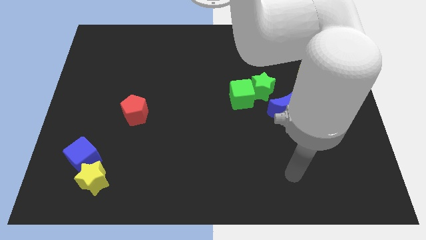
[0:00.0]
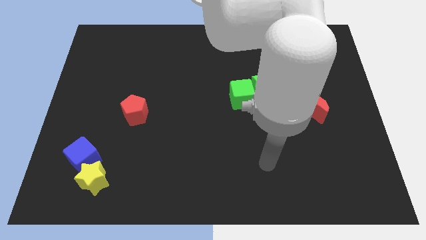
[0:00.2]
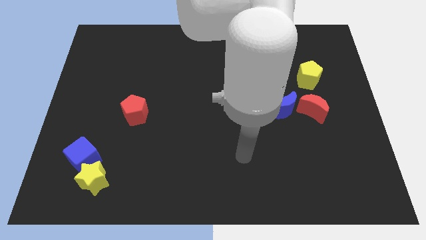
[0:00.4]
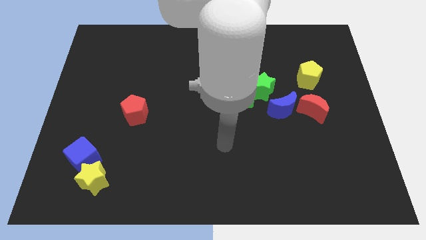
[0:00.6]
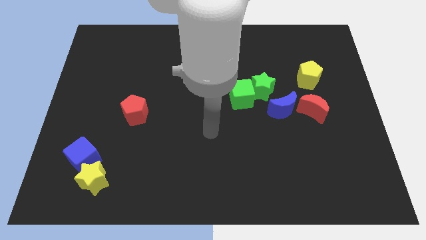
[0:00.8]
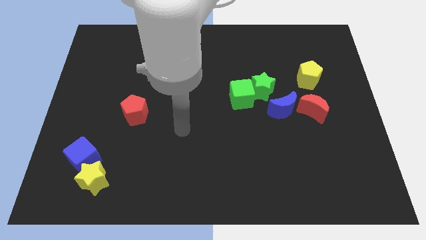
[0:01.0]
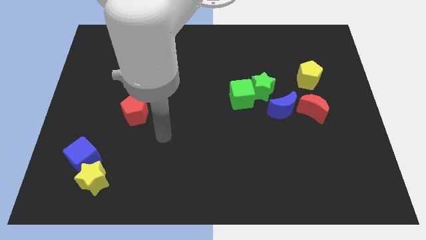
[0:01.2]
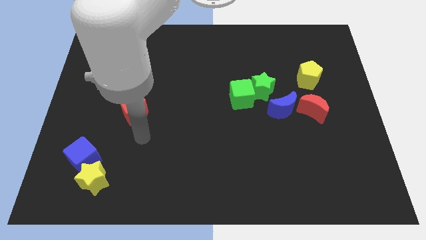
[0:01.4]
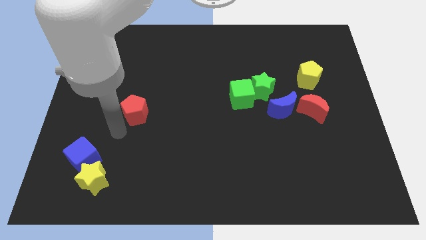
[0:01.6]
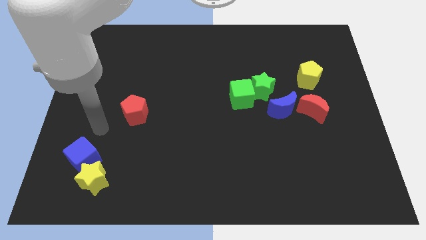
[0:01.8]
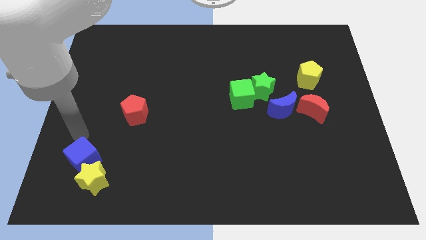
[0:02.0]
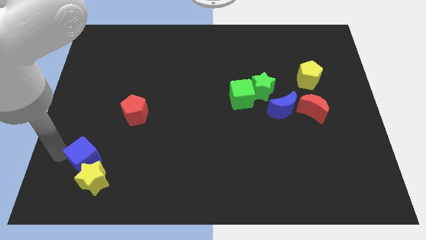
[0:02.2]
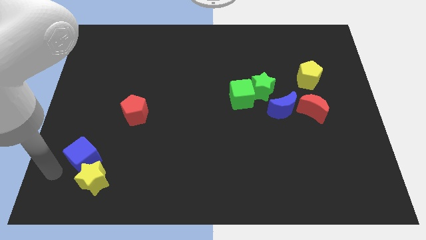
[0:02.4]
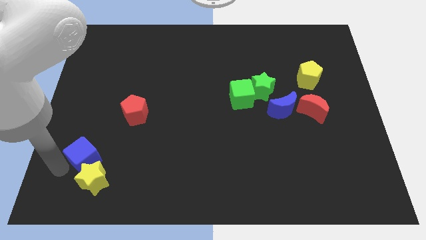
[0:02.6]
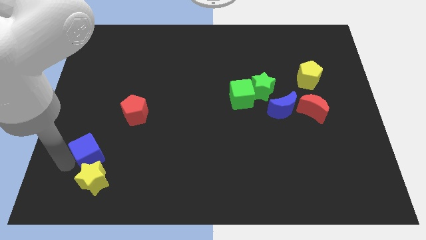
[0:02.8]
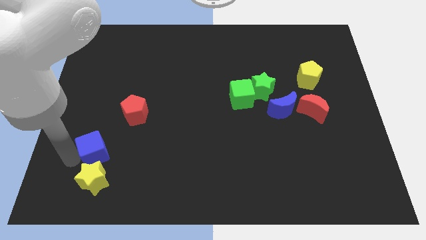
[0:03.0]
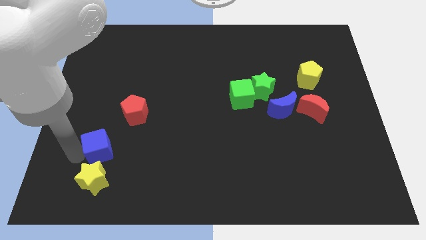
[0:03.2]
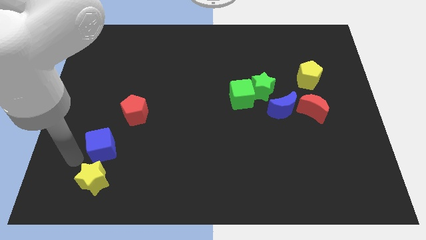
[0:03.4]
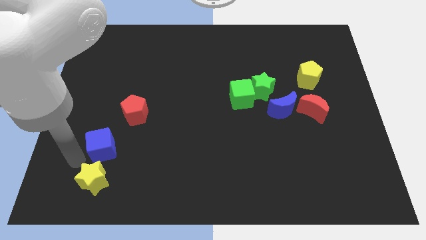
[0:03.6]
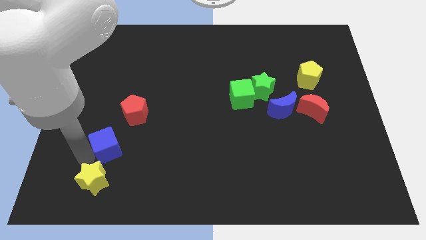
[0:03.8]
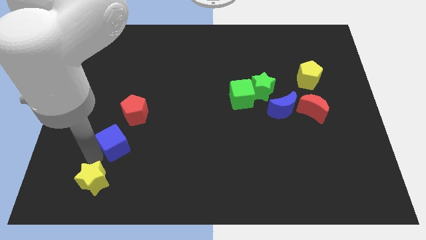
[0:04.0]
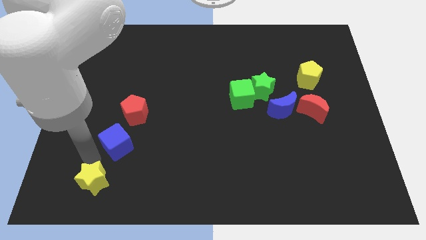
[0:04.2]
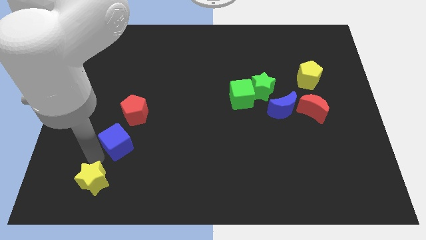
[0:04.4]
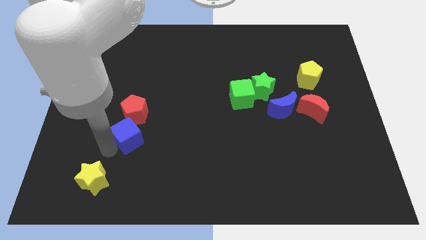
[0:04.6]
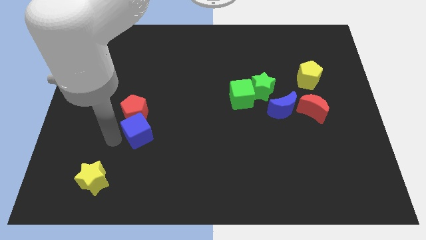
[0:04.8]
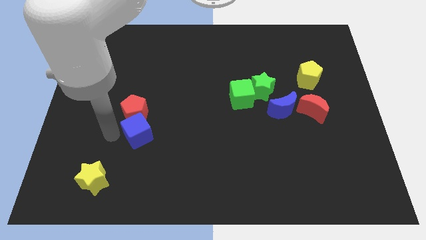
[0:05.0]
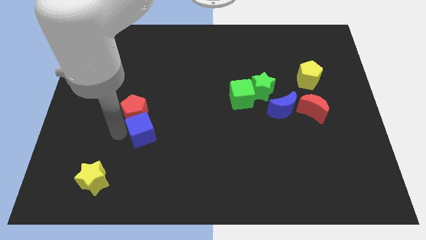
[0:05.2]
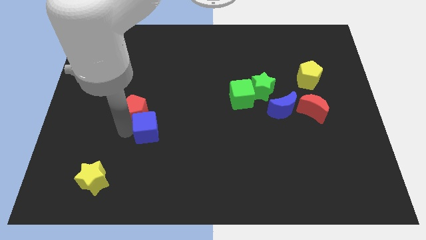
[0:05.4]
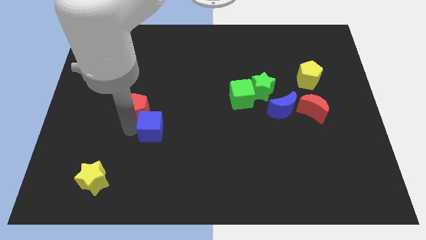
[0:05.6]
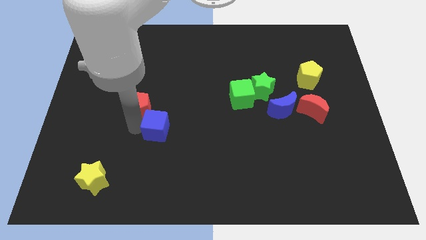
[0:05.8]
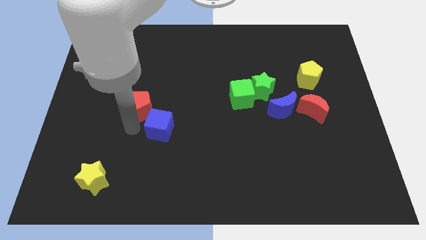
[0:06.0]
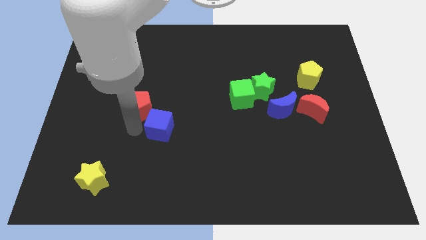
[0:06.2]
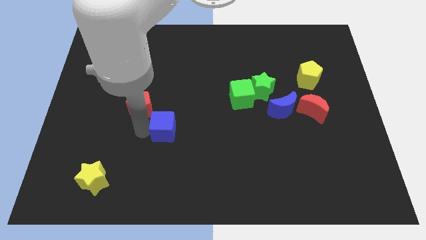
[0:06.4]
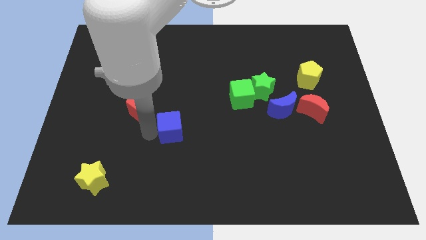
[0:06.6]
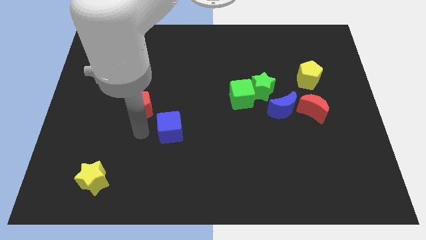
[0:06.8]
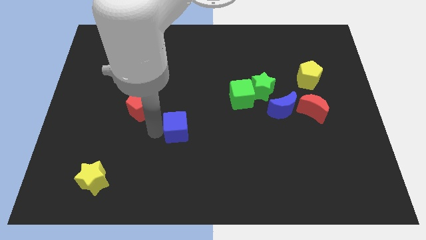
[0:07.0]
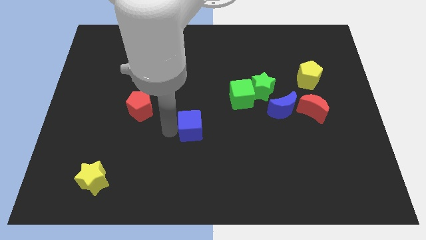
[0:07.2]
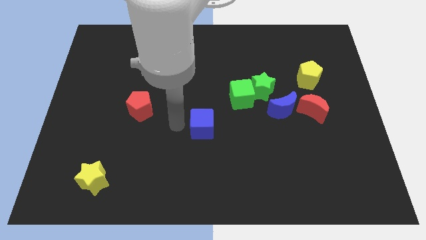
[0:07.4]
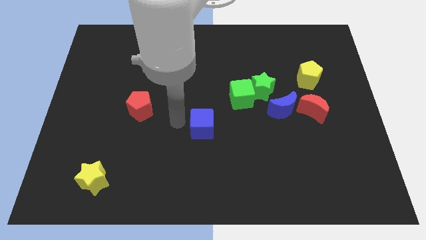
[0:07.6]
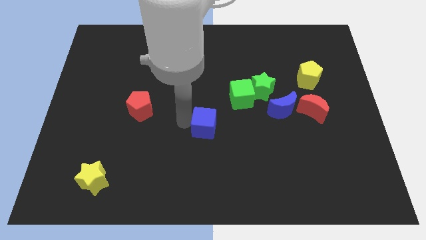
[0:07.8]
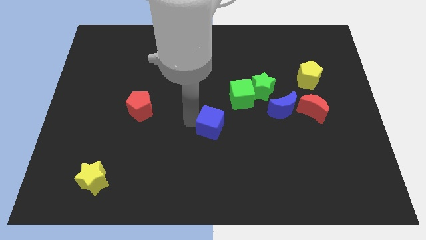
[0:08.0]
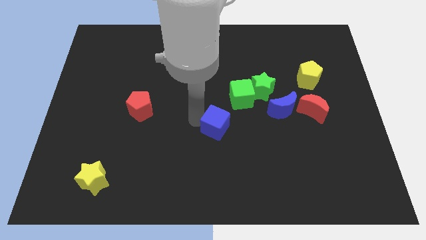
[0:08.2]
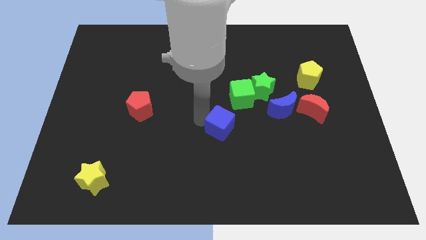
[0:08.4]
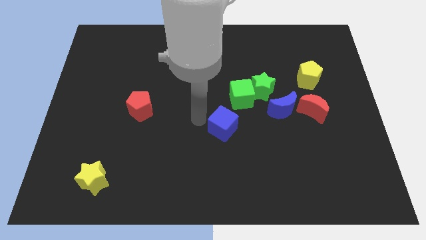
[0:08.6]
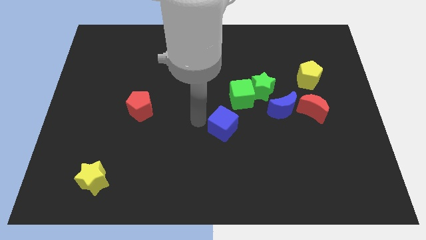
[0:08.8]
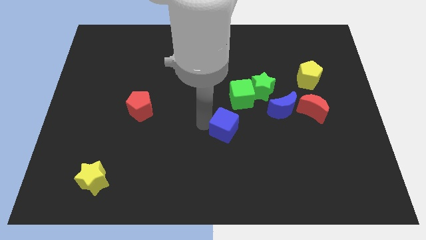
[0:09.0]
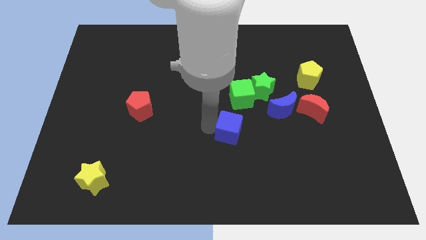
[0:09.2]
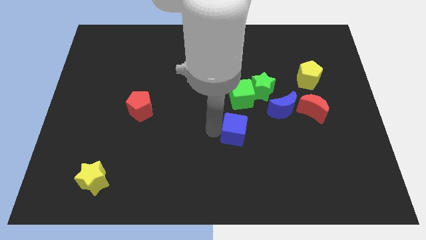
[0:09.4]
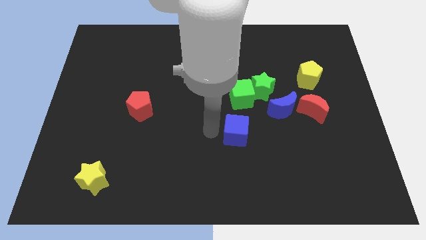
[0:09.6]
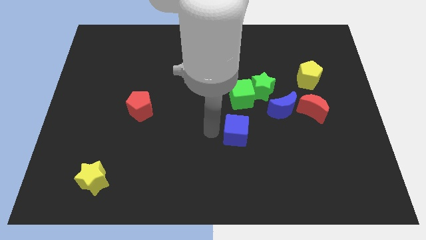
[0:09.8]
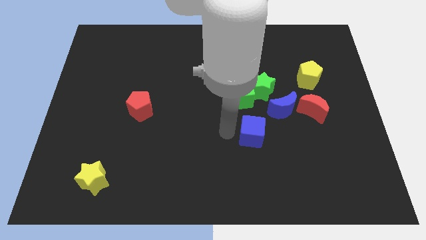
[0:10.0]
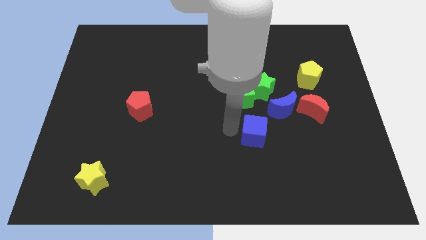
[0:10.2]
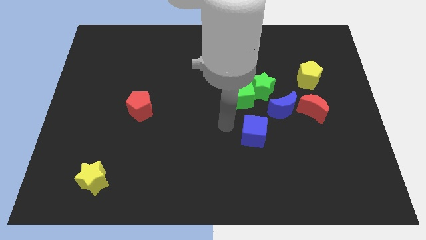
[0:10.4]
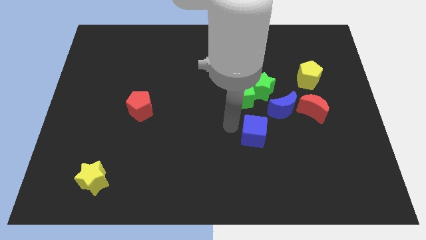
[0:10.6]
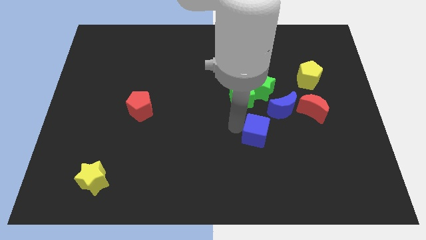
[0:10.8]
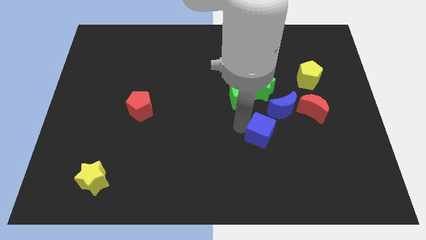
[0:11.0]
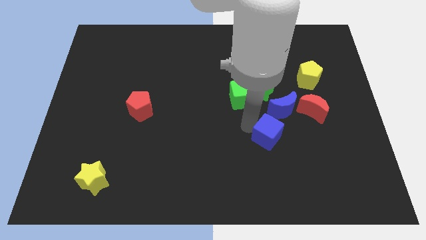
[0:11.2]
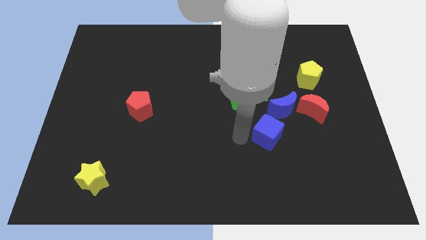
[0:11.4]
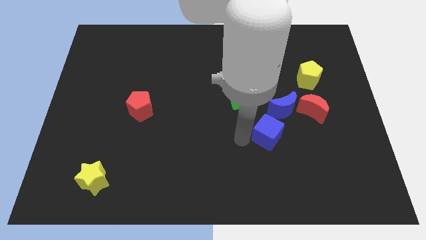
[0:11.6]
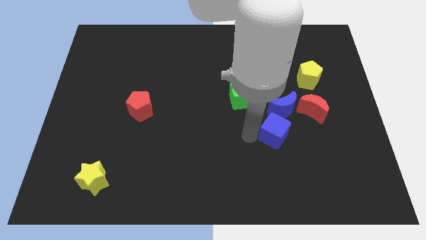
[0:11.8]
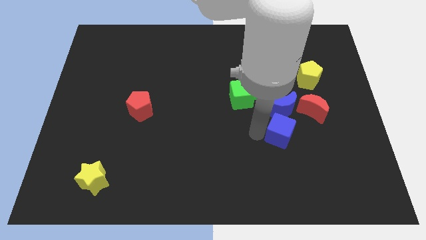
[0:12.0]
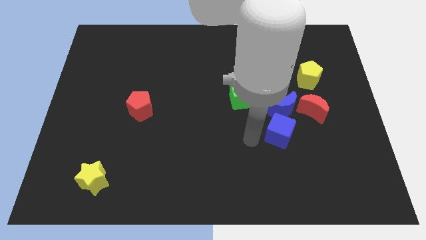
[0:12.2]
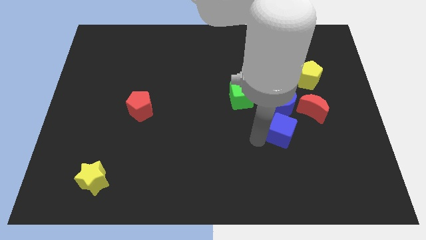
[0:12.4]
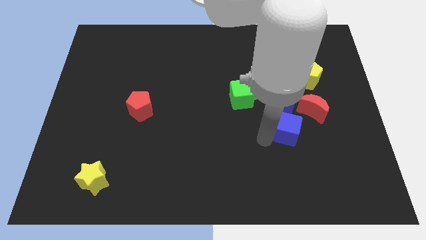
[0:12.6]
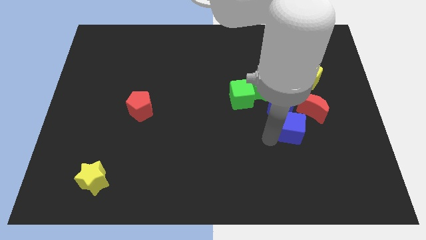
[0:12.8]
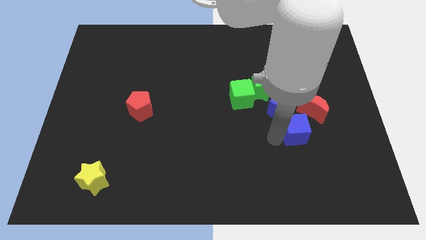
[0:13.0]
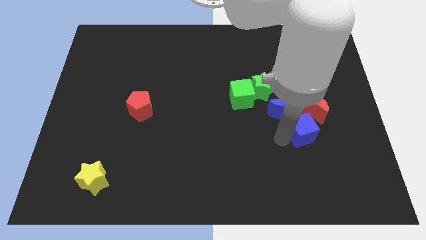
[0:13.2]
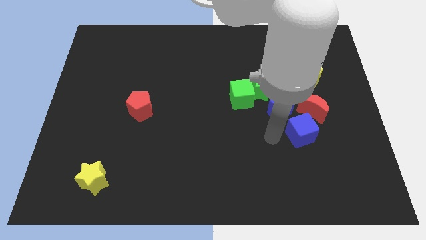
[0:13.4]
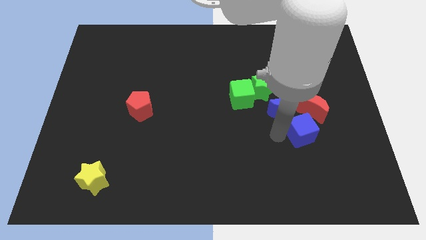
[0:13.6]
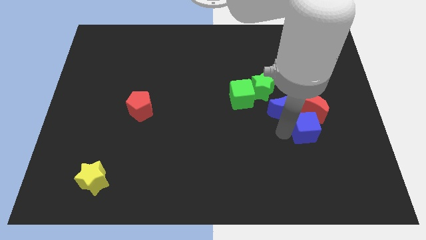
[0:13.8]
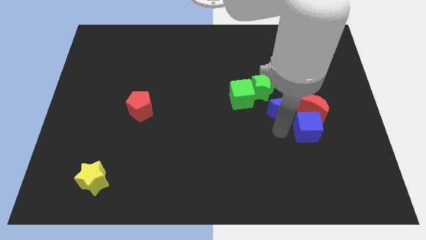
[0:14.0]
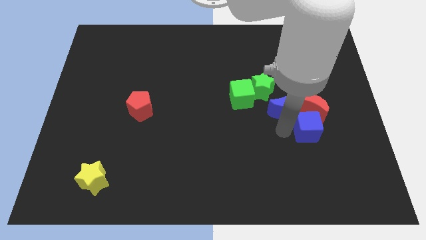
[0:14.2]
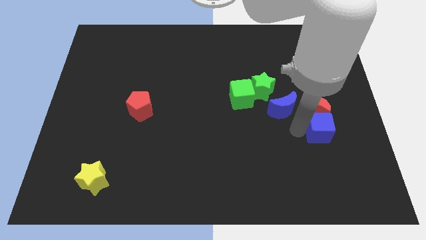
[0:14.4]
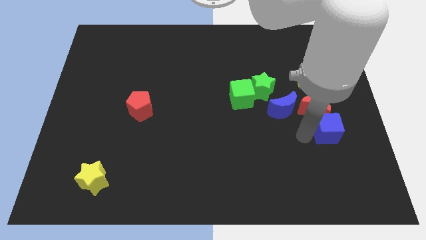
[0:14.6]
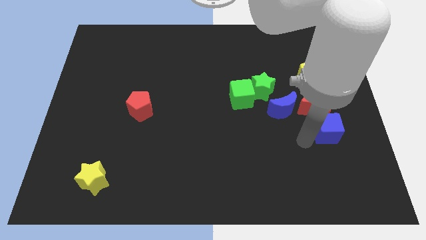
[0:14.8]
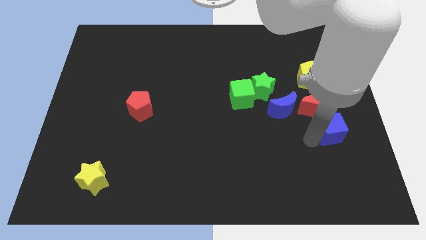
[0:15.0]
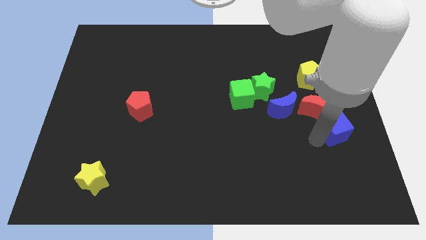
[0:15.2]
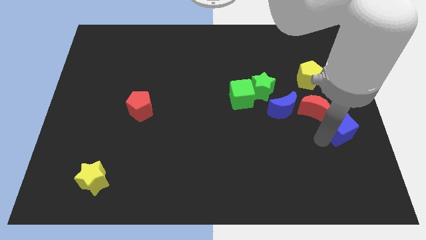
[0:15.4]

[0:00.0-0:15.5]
push the blue cube to the right side of the board
